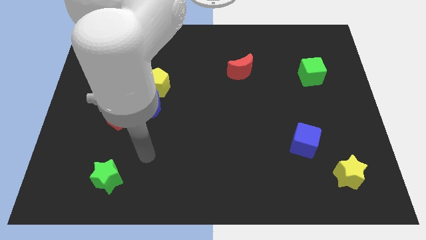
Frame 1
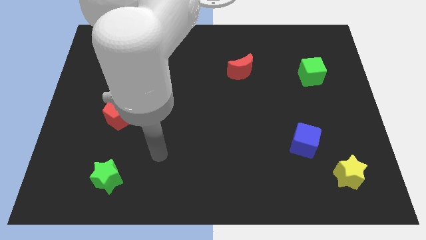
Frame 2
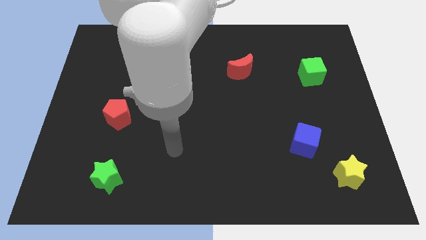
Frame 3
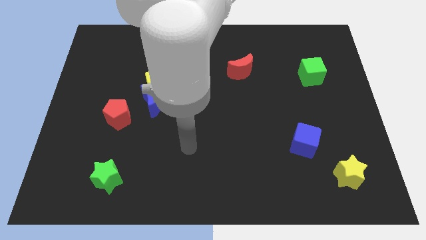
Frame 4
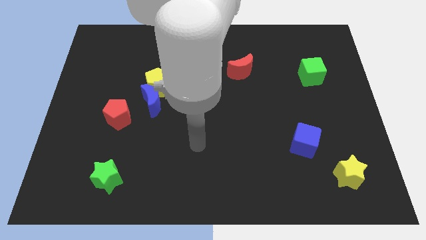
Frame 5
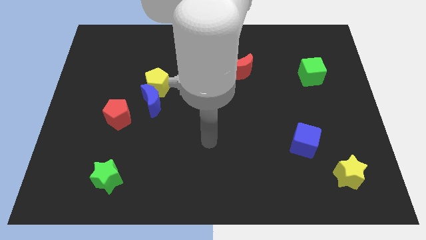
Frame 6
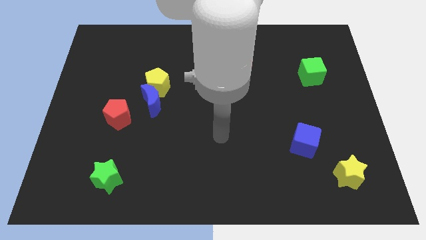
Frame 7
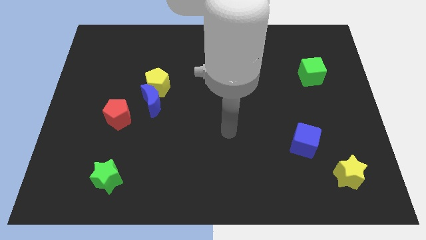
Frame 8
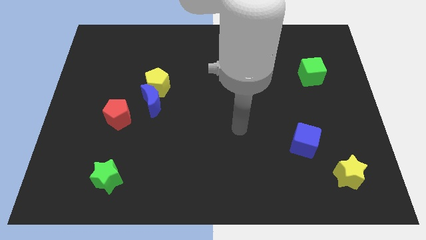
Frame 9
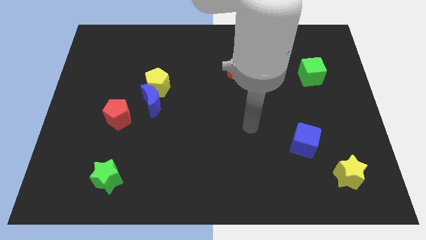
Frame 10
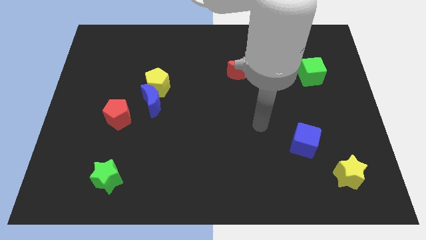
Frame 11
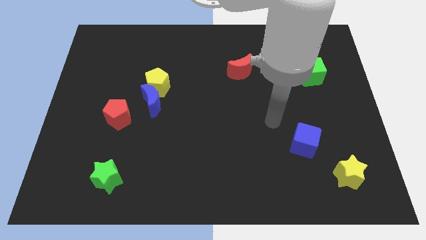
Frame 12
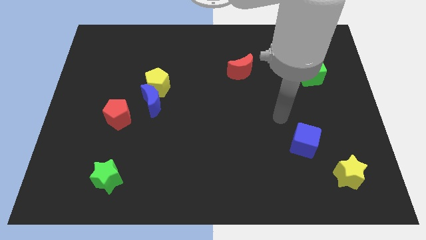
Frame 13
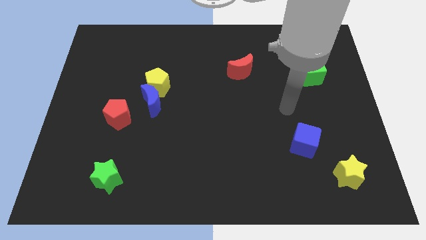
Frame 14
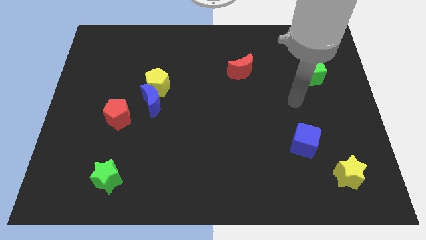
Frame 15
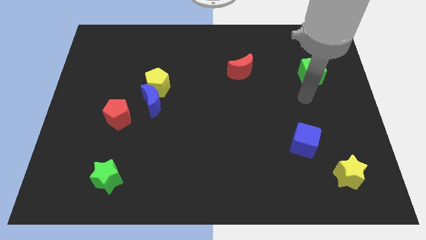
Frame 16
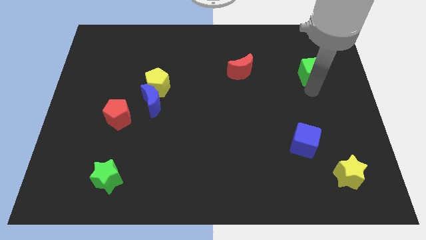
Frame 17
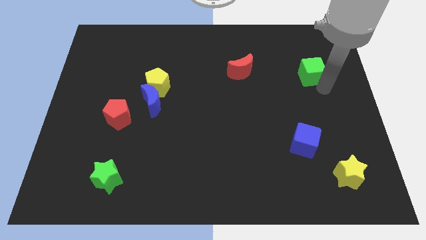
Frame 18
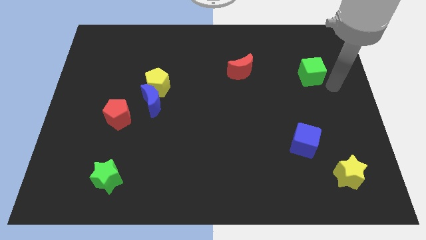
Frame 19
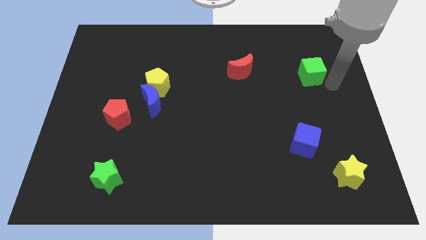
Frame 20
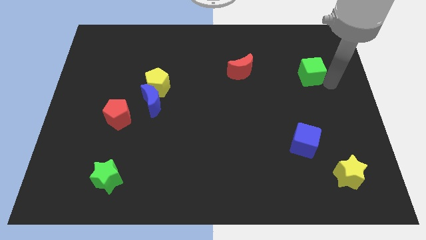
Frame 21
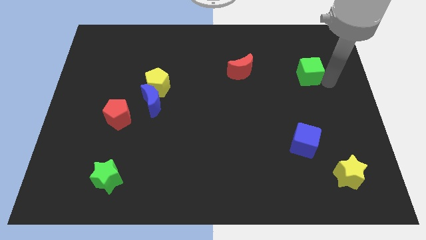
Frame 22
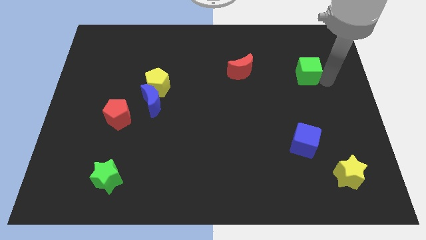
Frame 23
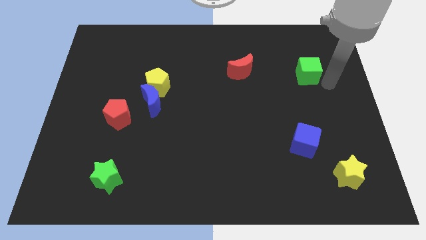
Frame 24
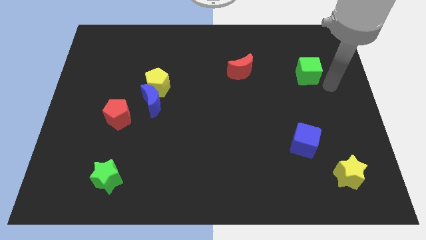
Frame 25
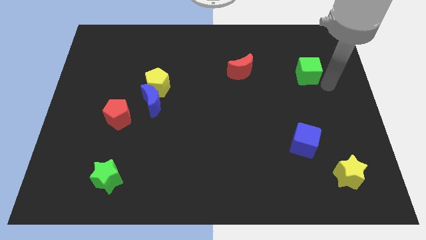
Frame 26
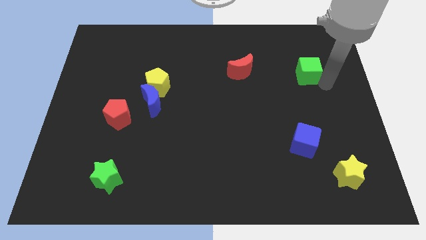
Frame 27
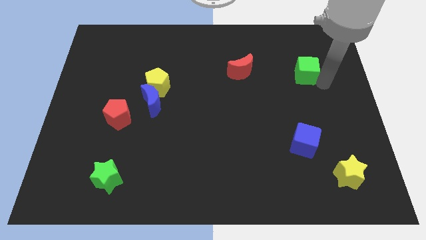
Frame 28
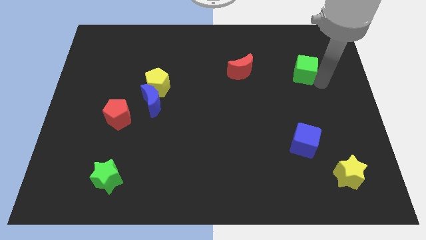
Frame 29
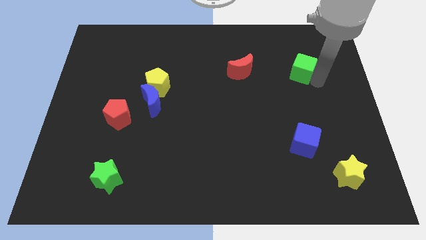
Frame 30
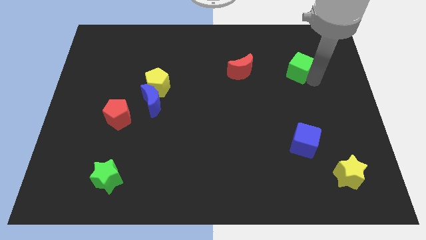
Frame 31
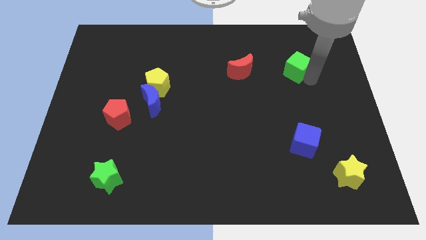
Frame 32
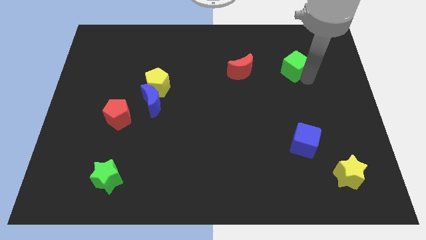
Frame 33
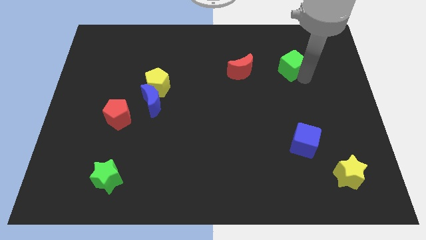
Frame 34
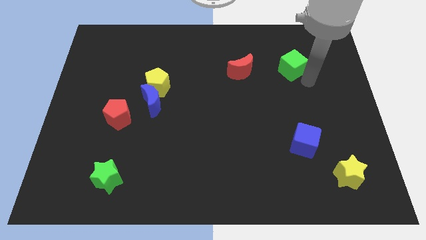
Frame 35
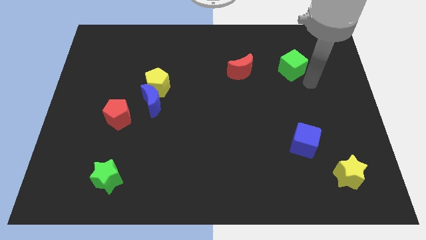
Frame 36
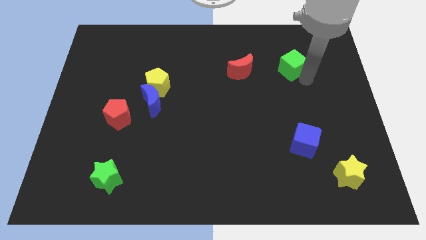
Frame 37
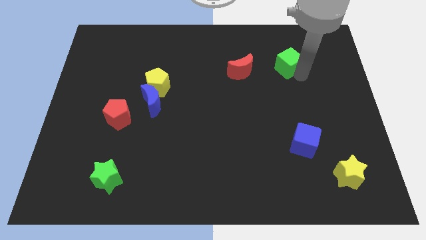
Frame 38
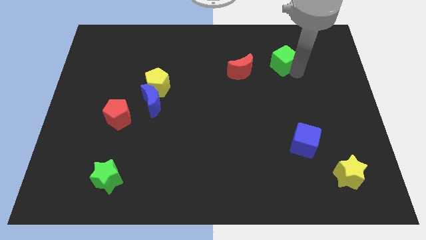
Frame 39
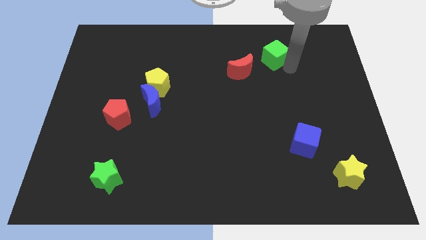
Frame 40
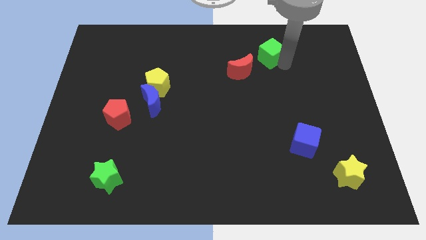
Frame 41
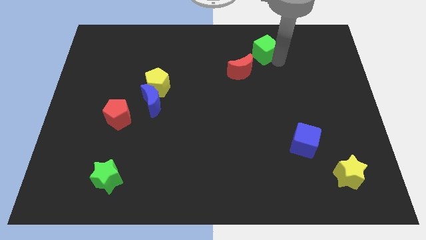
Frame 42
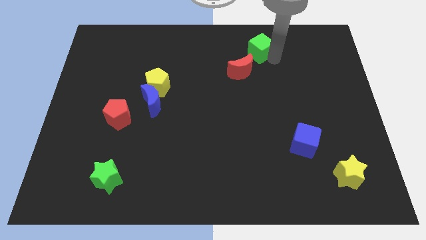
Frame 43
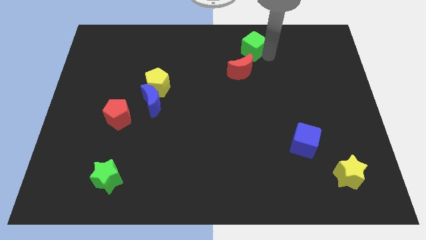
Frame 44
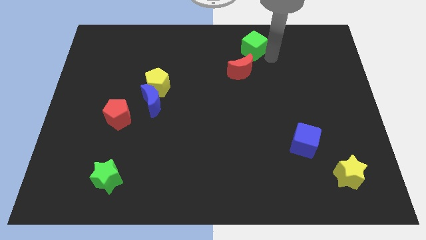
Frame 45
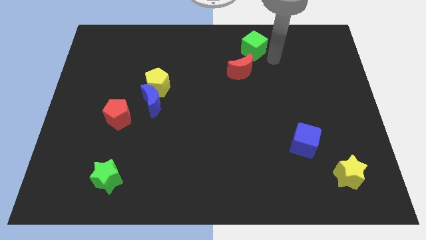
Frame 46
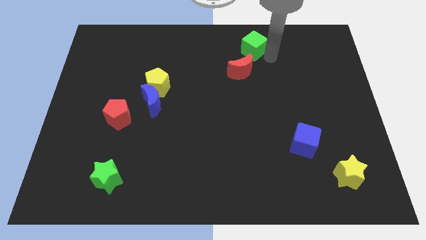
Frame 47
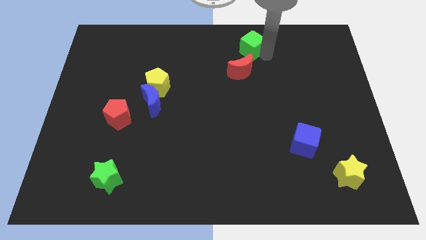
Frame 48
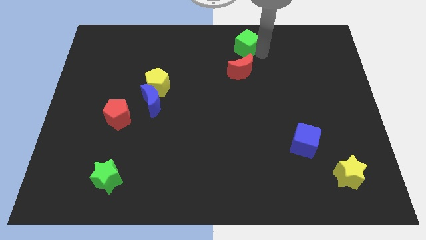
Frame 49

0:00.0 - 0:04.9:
slide the green cube to the towards your base

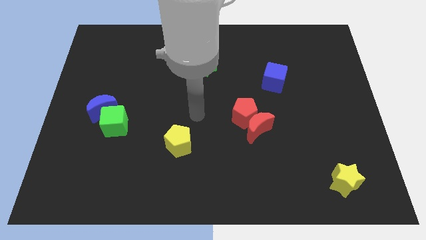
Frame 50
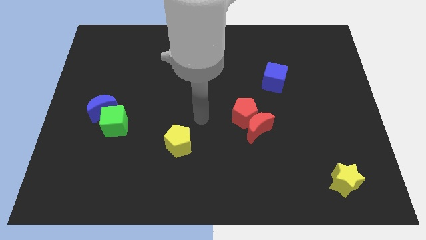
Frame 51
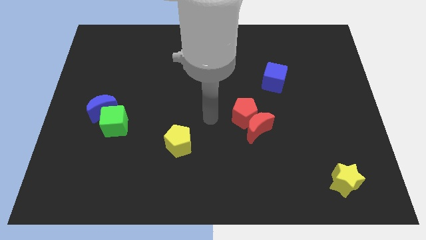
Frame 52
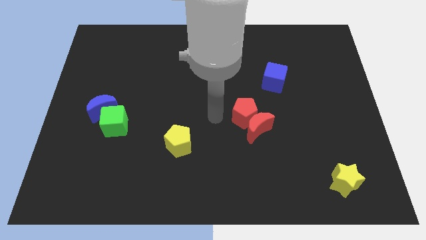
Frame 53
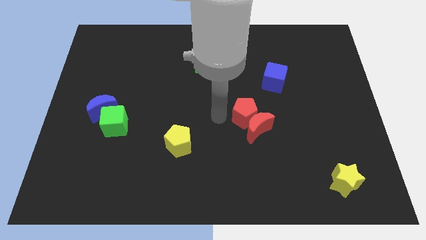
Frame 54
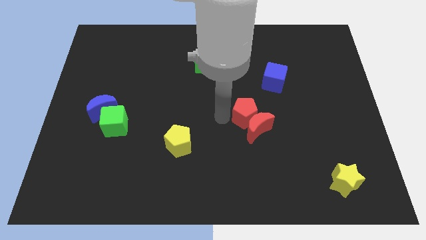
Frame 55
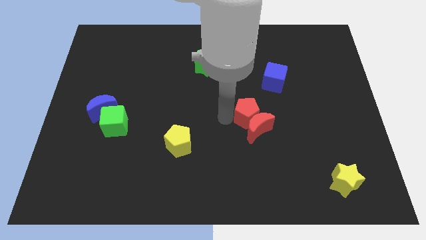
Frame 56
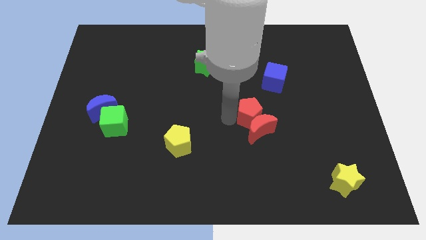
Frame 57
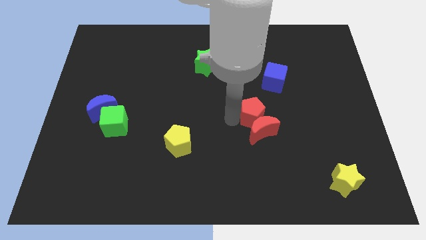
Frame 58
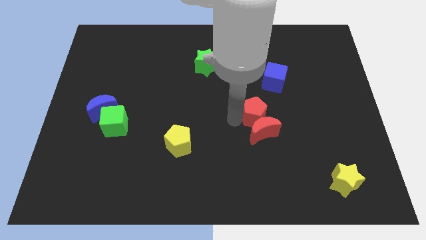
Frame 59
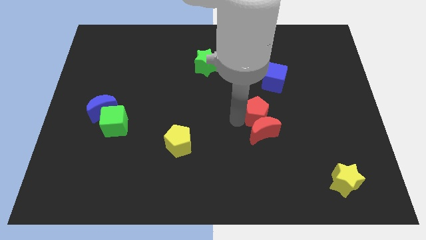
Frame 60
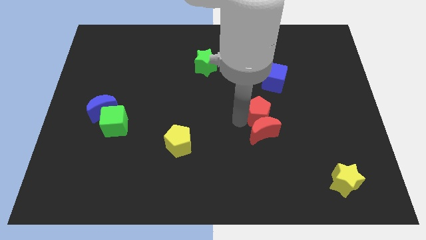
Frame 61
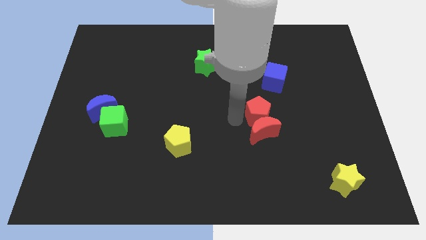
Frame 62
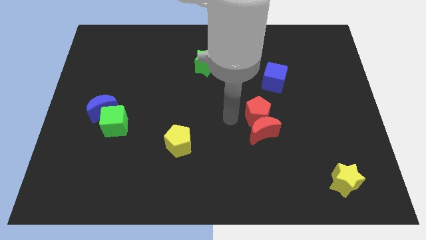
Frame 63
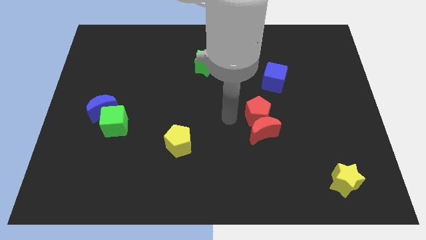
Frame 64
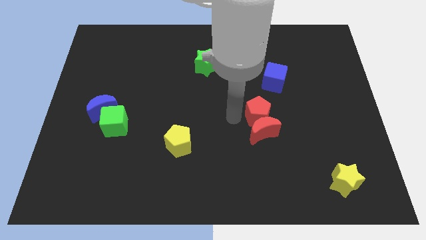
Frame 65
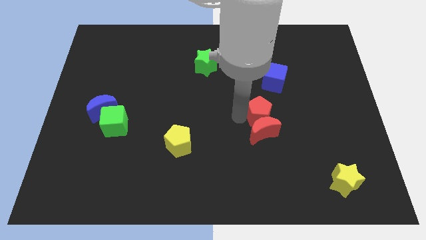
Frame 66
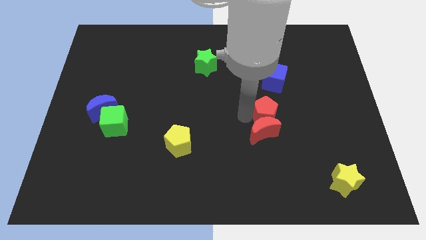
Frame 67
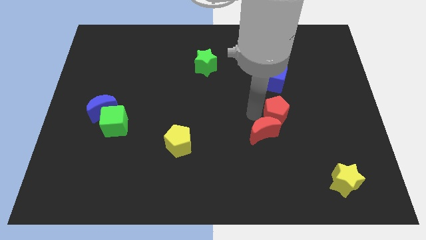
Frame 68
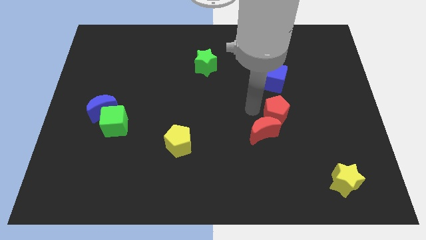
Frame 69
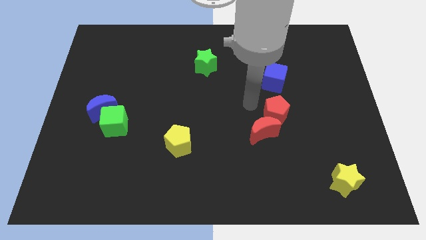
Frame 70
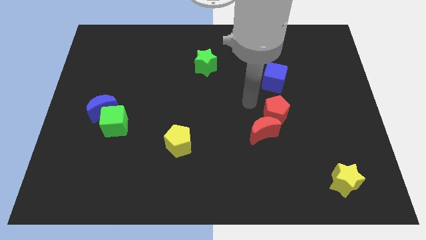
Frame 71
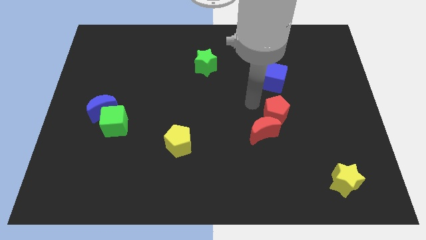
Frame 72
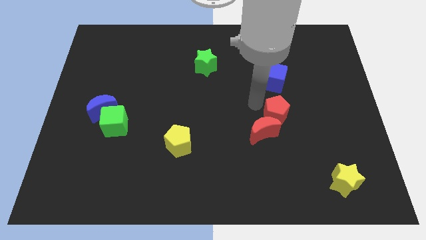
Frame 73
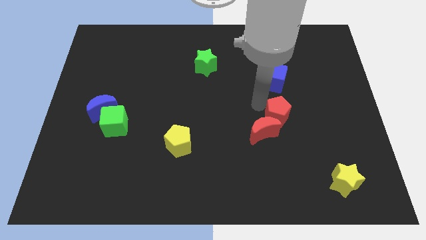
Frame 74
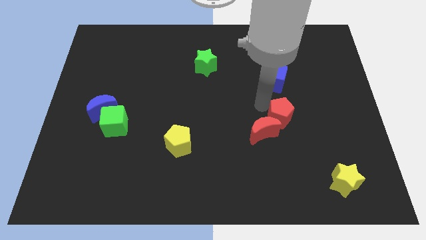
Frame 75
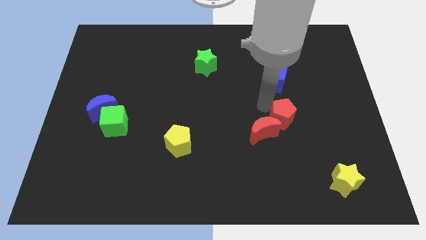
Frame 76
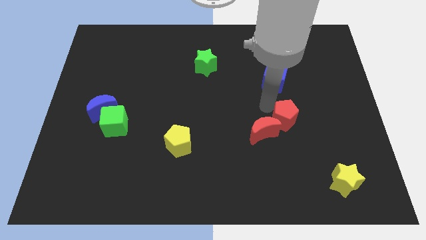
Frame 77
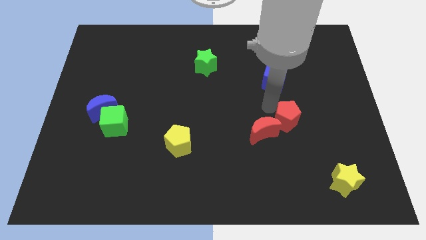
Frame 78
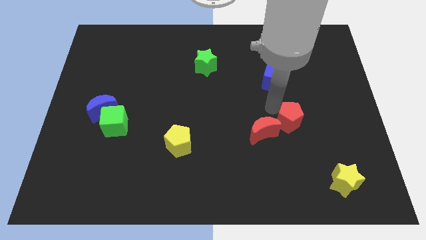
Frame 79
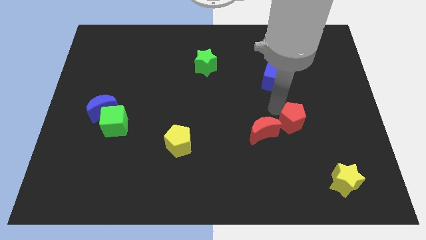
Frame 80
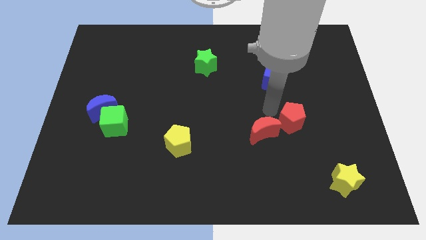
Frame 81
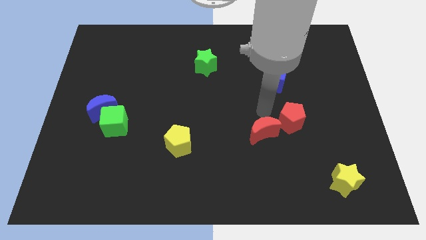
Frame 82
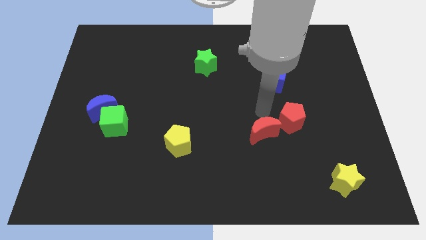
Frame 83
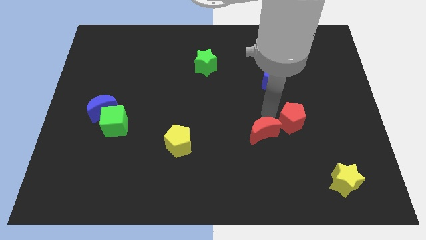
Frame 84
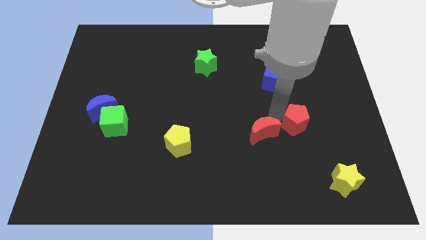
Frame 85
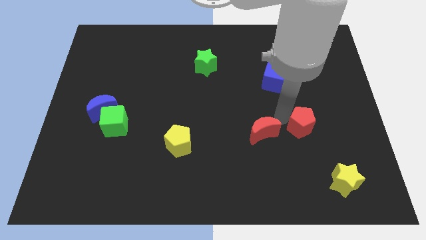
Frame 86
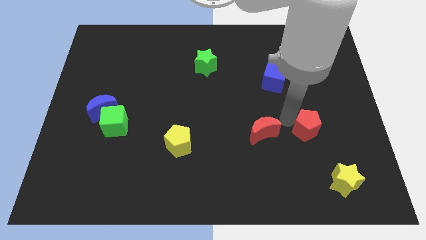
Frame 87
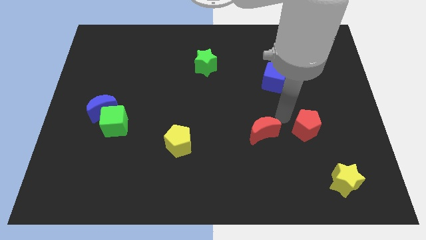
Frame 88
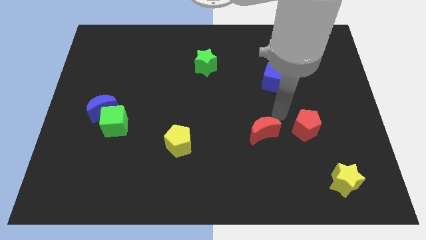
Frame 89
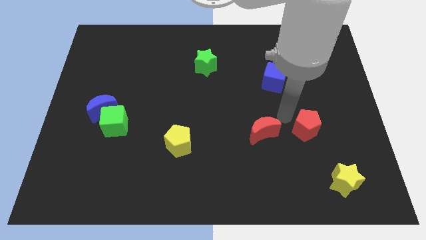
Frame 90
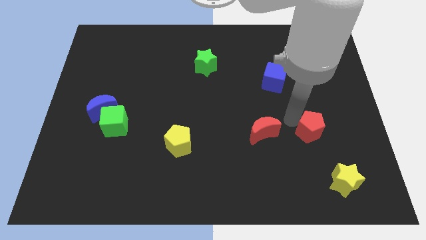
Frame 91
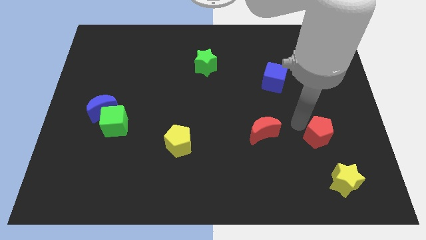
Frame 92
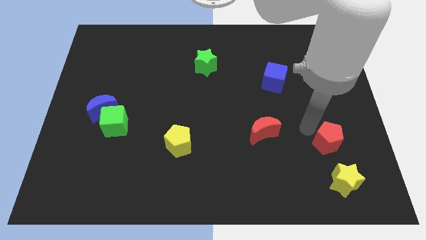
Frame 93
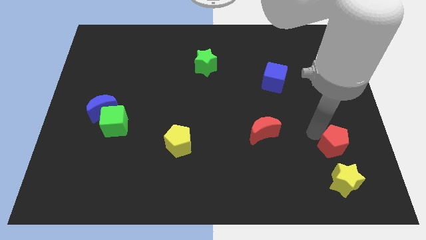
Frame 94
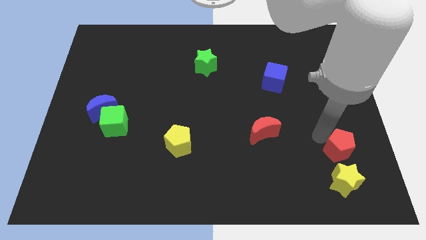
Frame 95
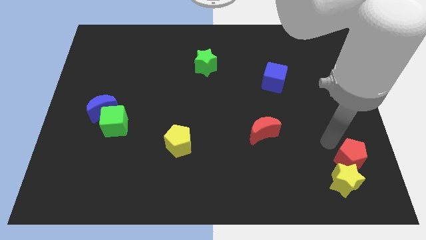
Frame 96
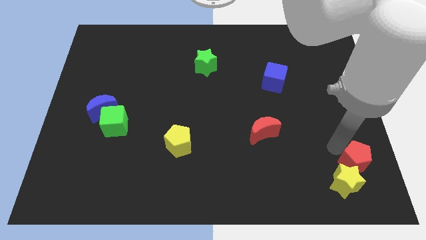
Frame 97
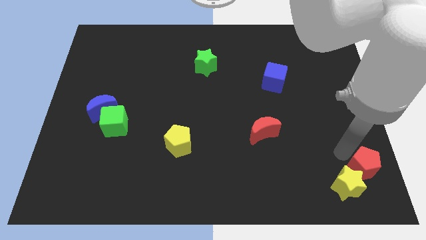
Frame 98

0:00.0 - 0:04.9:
move the red pentagon to the lower right corner
